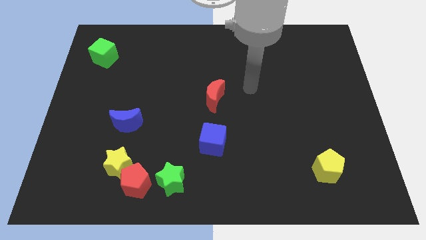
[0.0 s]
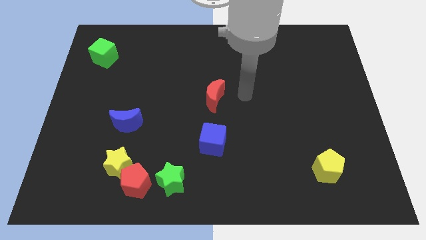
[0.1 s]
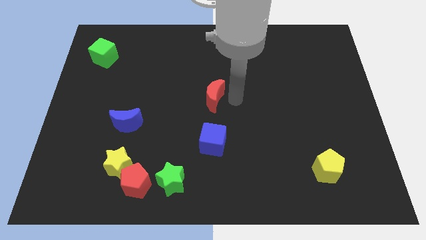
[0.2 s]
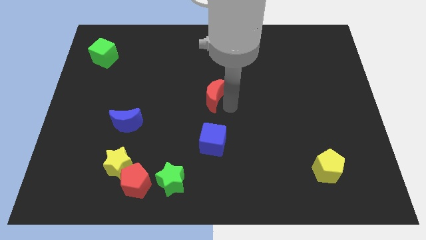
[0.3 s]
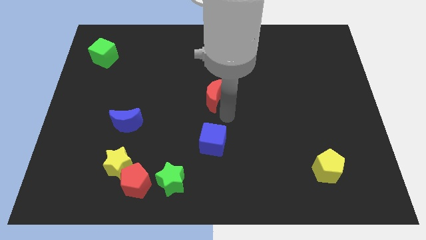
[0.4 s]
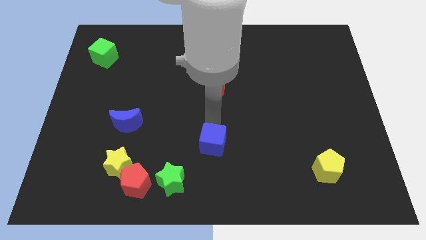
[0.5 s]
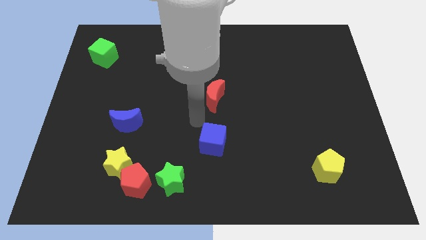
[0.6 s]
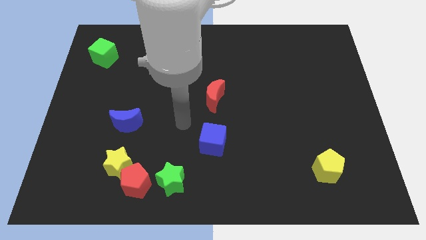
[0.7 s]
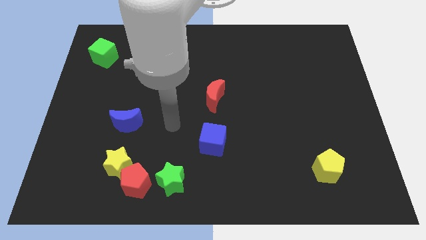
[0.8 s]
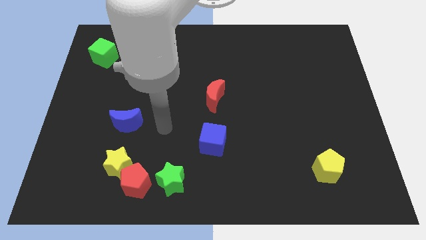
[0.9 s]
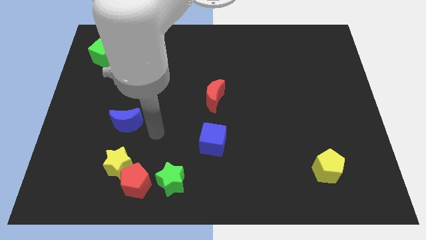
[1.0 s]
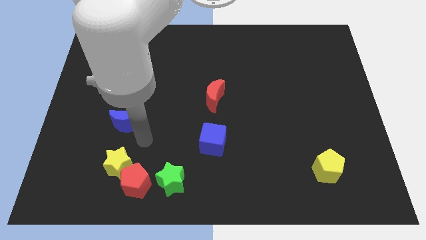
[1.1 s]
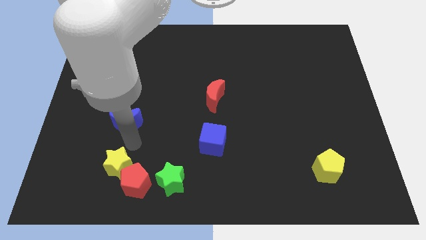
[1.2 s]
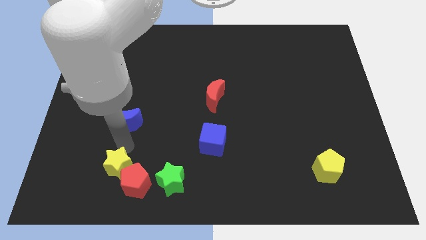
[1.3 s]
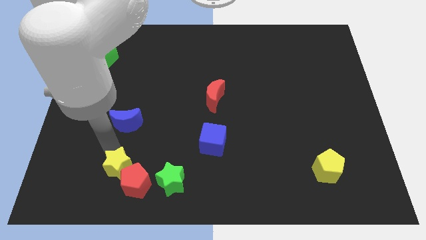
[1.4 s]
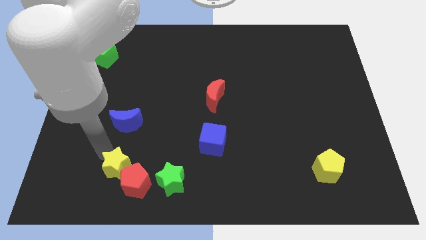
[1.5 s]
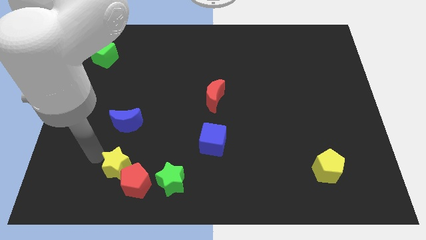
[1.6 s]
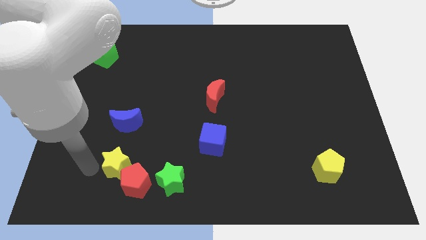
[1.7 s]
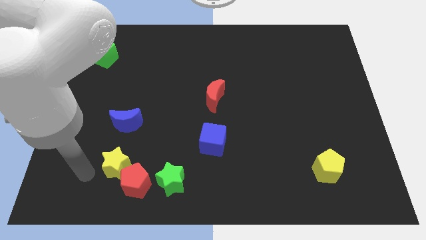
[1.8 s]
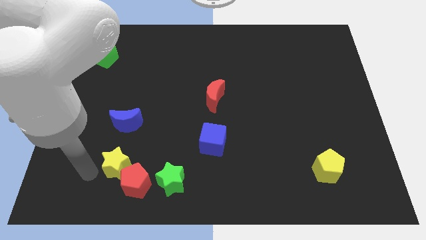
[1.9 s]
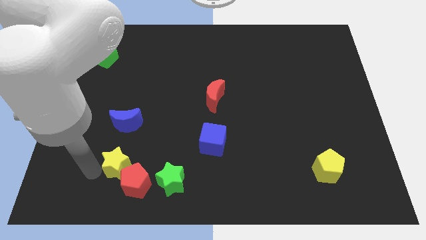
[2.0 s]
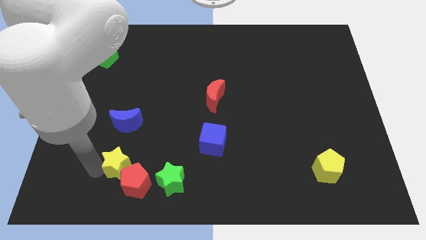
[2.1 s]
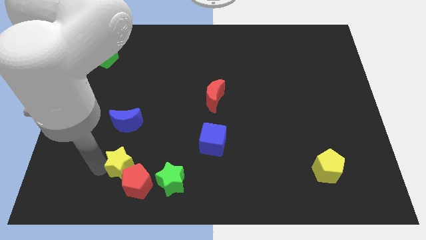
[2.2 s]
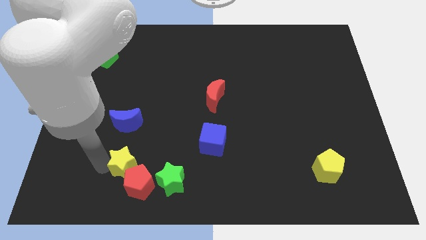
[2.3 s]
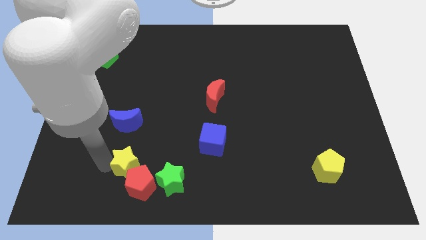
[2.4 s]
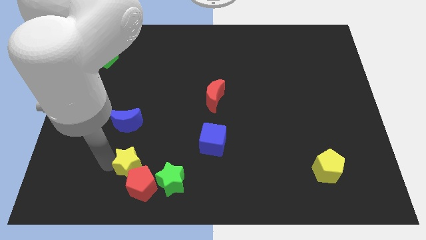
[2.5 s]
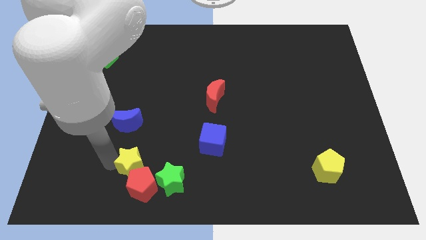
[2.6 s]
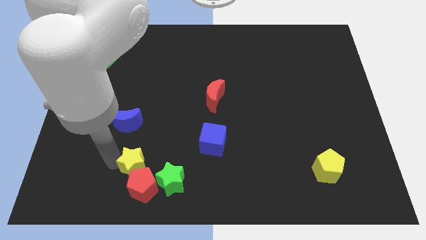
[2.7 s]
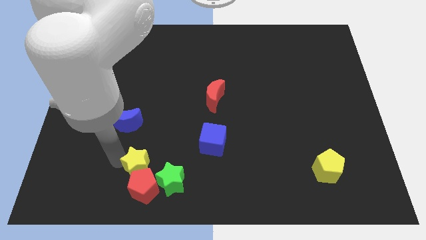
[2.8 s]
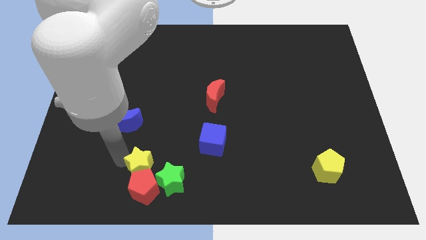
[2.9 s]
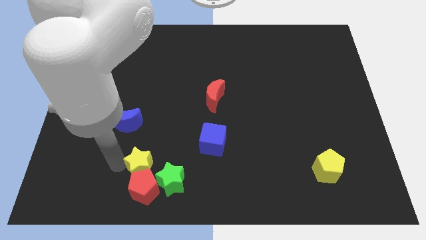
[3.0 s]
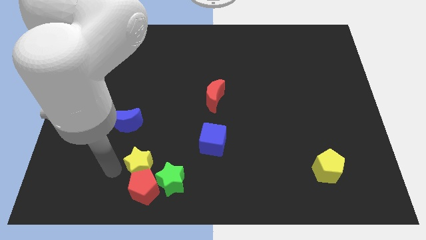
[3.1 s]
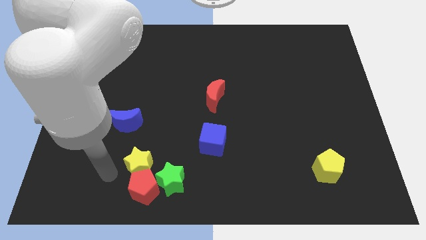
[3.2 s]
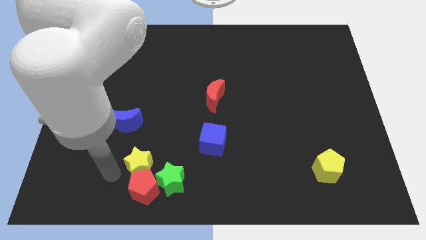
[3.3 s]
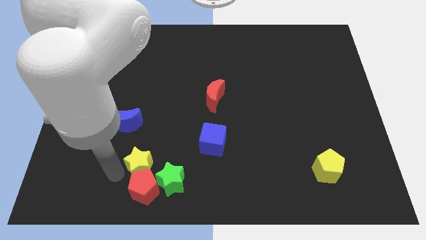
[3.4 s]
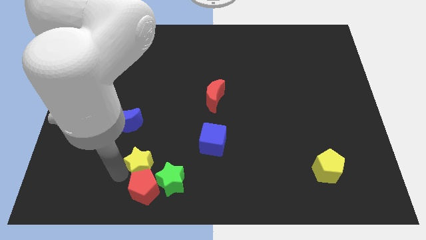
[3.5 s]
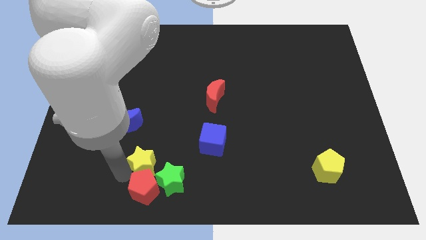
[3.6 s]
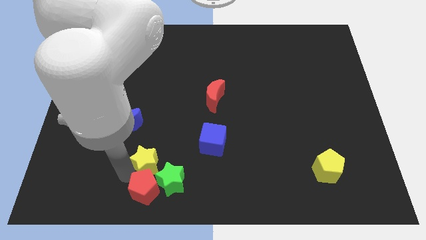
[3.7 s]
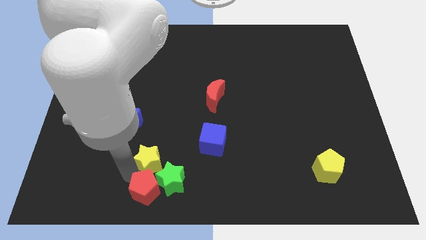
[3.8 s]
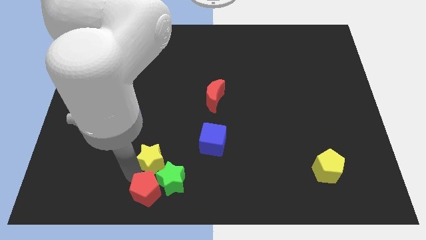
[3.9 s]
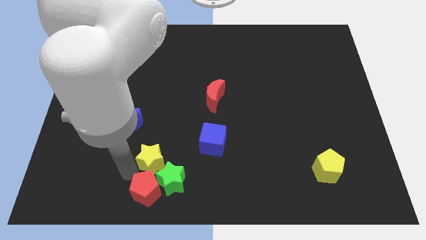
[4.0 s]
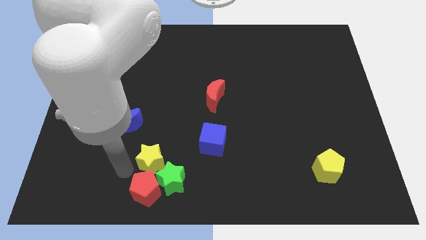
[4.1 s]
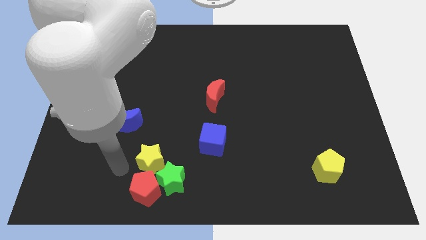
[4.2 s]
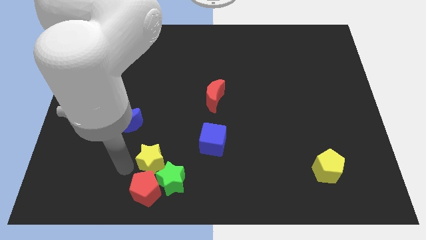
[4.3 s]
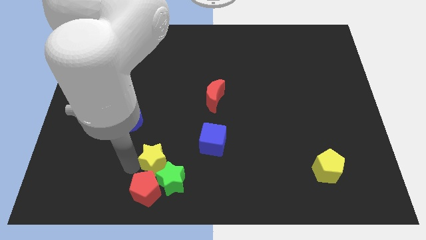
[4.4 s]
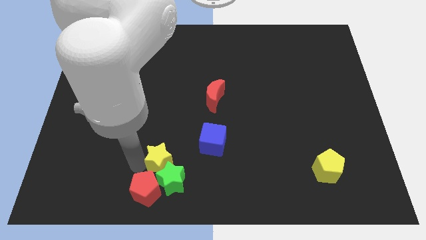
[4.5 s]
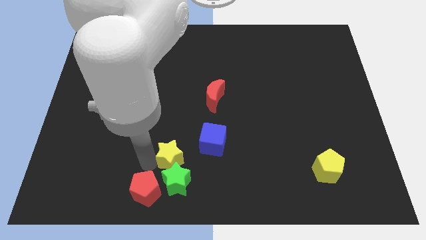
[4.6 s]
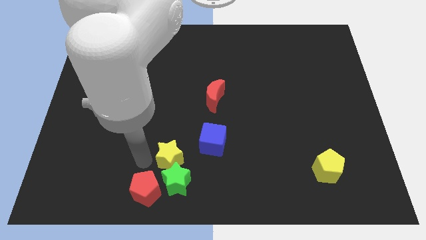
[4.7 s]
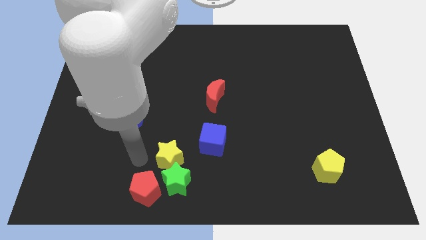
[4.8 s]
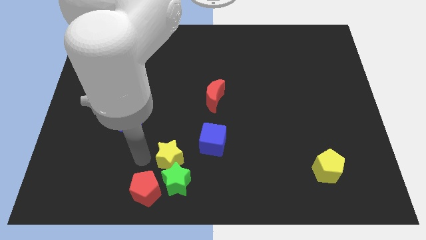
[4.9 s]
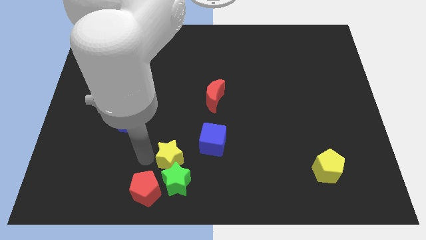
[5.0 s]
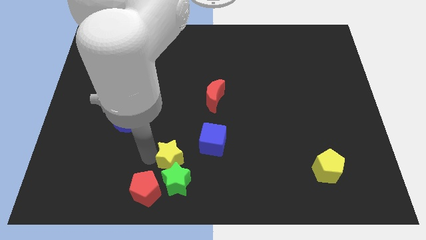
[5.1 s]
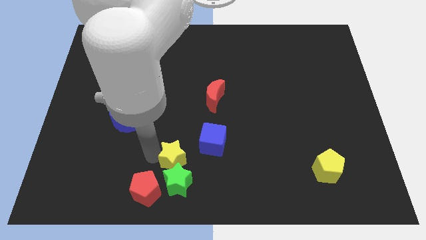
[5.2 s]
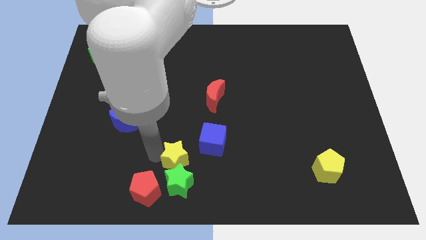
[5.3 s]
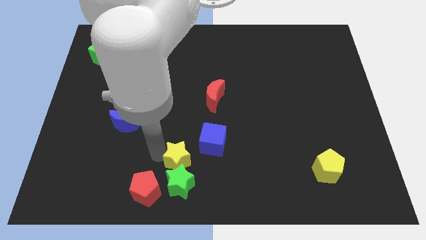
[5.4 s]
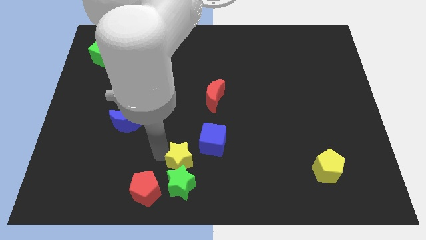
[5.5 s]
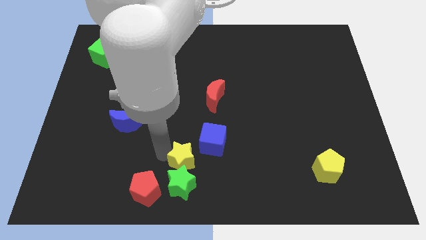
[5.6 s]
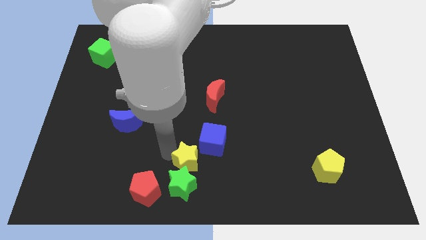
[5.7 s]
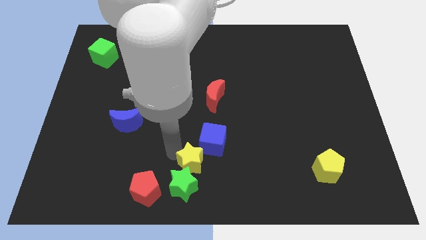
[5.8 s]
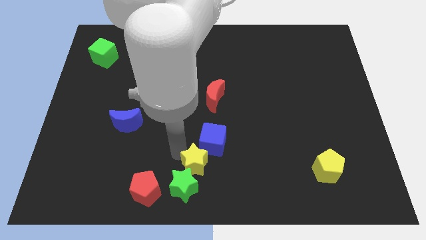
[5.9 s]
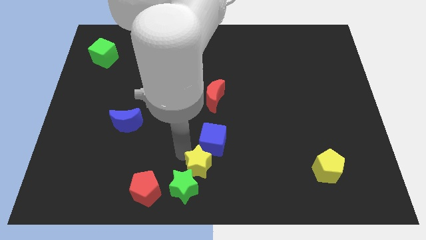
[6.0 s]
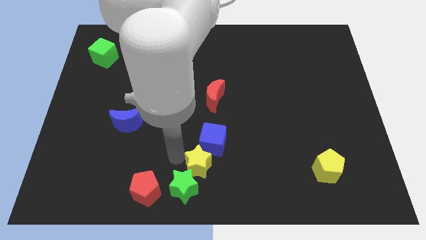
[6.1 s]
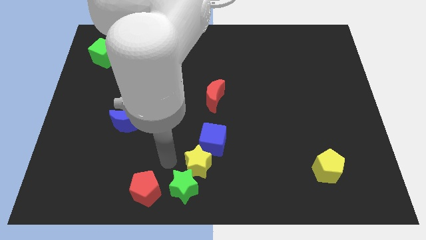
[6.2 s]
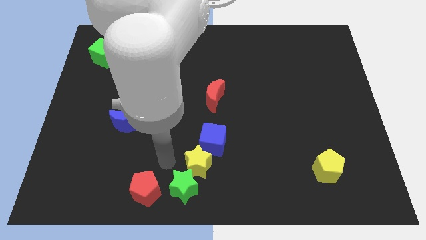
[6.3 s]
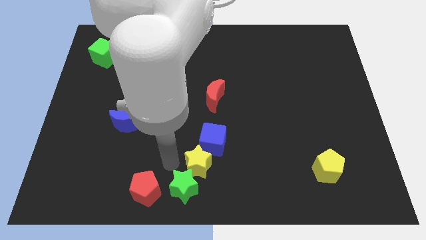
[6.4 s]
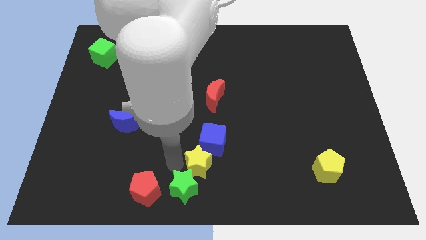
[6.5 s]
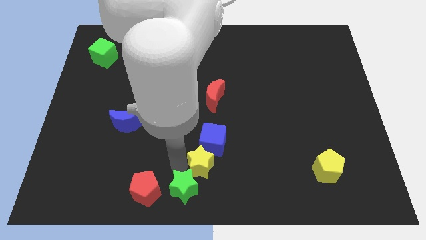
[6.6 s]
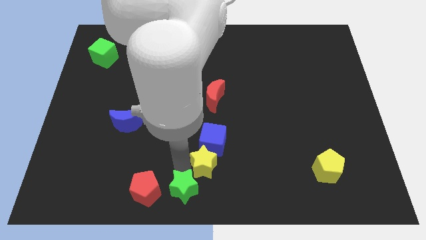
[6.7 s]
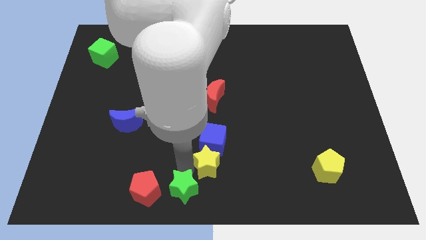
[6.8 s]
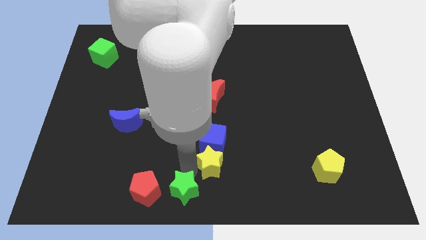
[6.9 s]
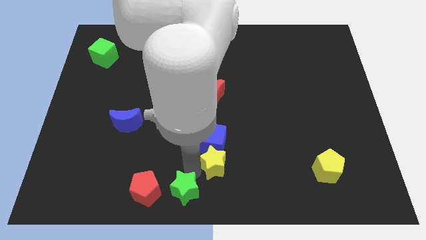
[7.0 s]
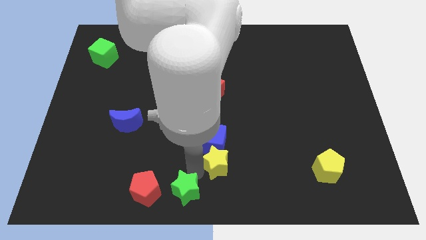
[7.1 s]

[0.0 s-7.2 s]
move the yellow star right

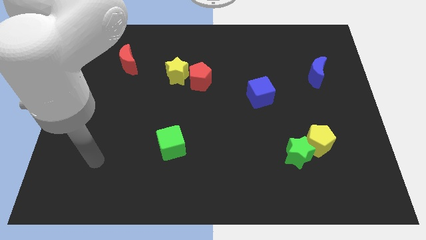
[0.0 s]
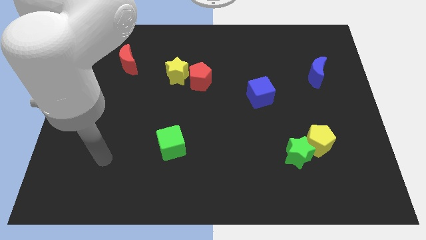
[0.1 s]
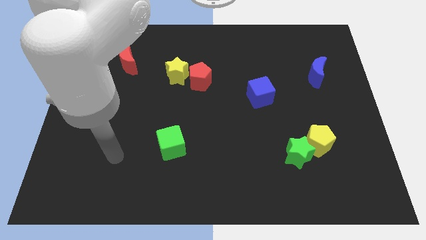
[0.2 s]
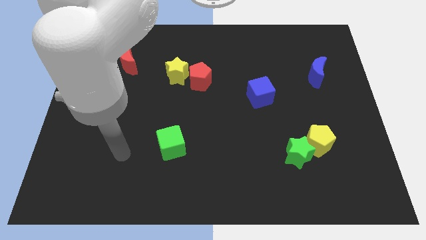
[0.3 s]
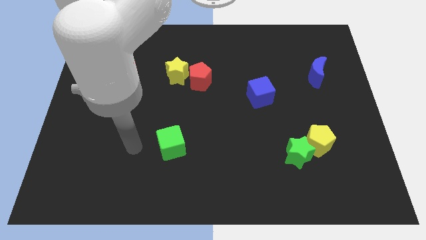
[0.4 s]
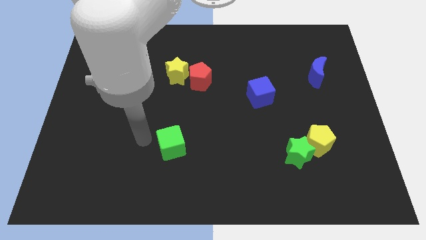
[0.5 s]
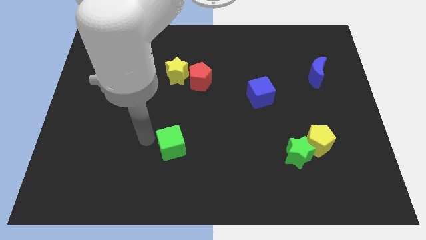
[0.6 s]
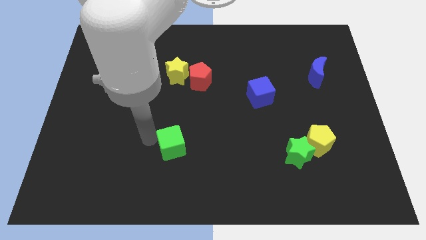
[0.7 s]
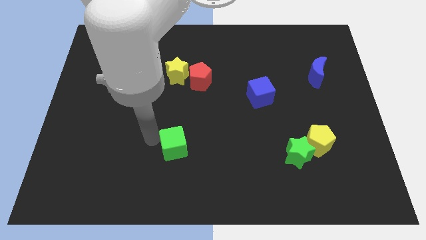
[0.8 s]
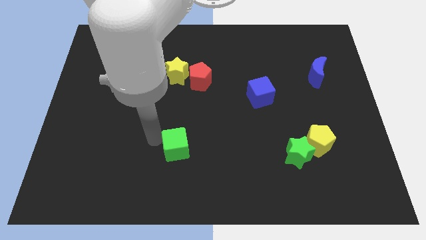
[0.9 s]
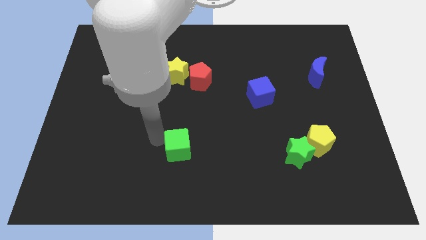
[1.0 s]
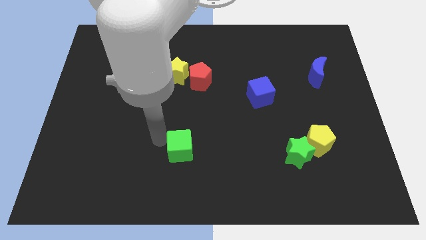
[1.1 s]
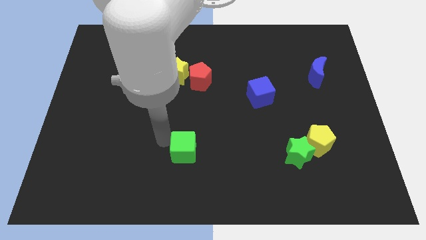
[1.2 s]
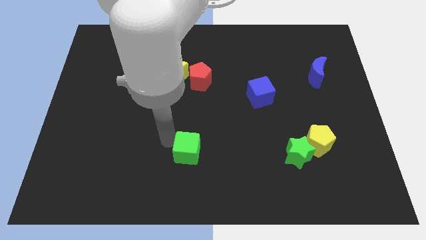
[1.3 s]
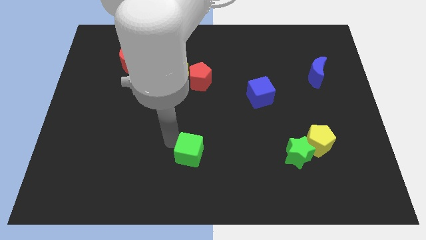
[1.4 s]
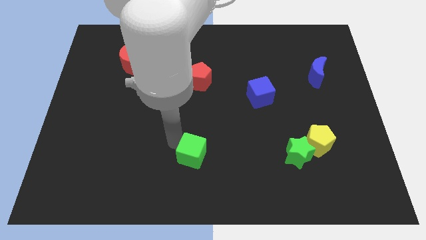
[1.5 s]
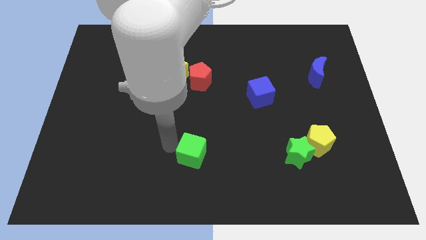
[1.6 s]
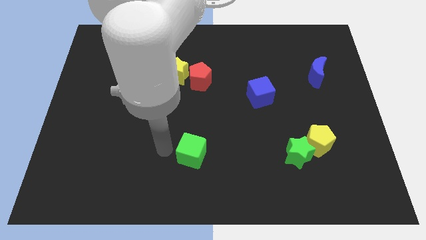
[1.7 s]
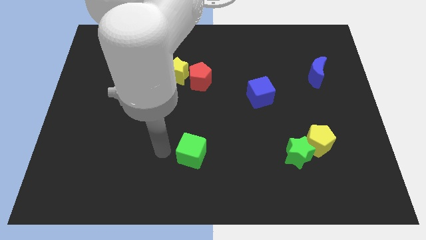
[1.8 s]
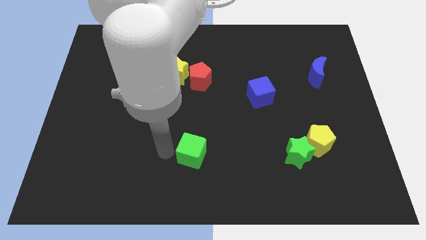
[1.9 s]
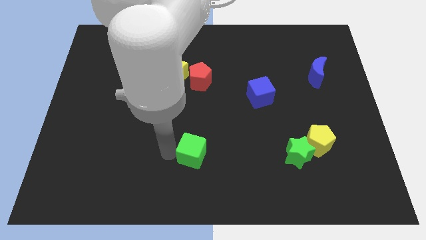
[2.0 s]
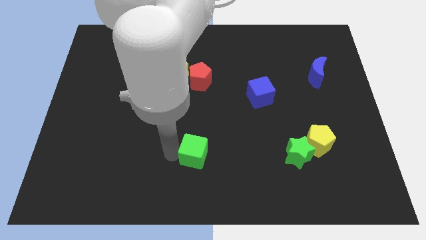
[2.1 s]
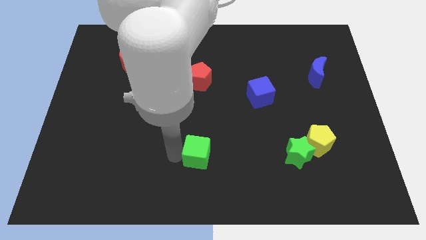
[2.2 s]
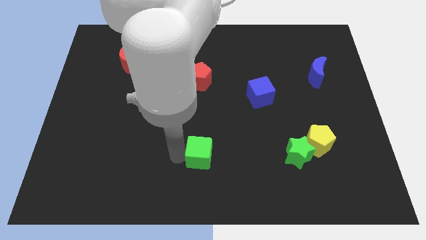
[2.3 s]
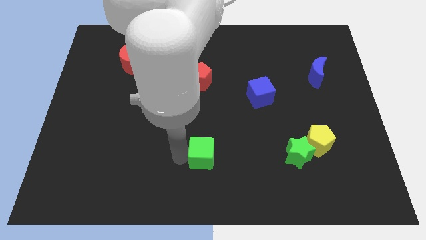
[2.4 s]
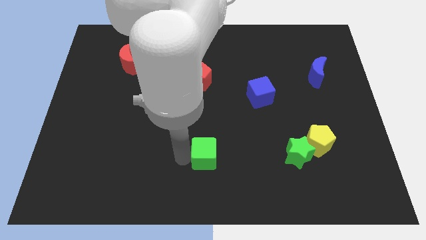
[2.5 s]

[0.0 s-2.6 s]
slightly push the green cube to the right
